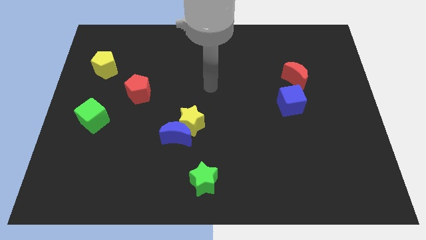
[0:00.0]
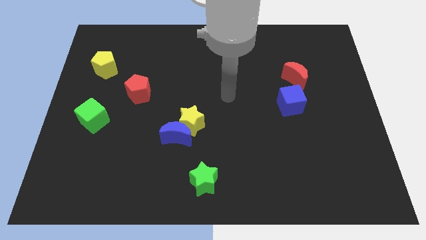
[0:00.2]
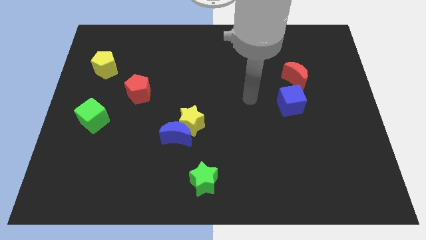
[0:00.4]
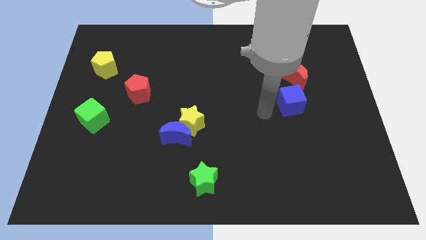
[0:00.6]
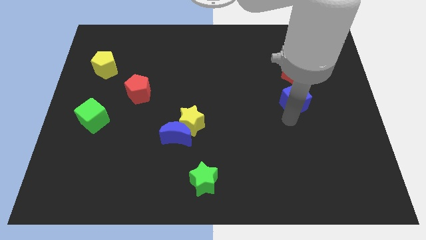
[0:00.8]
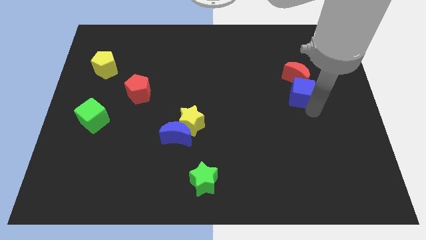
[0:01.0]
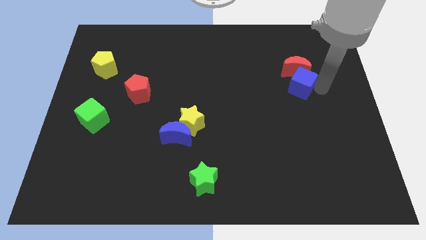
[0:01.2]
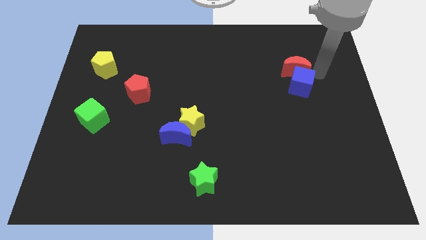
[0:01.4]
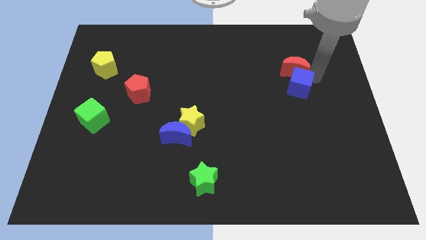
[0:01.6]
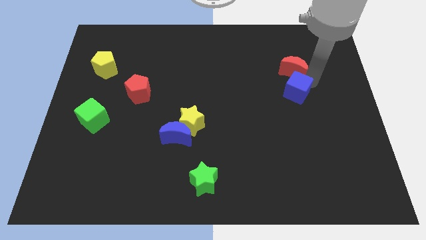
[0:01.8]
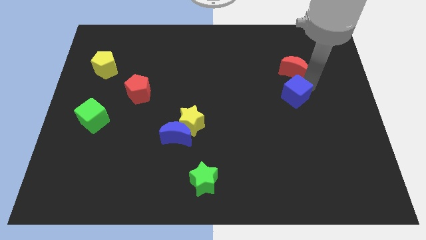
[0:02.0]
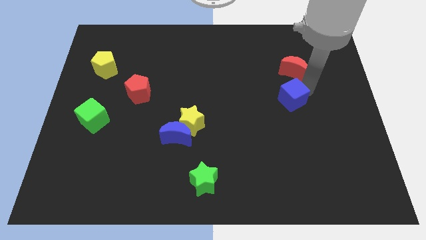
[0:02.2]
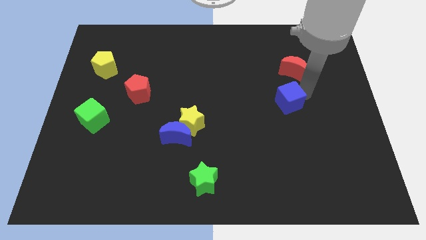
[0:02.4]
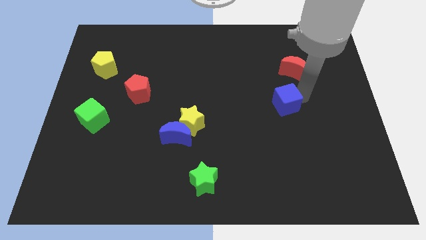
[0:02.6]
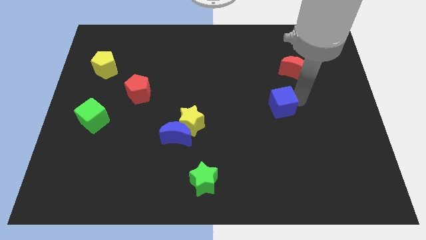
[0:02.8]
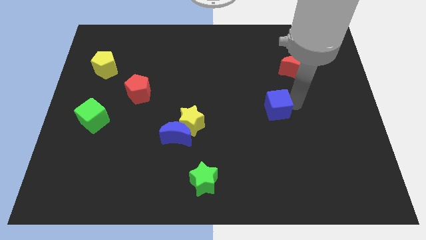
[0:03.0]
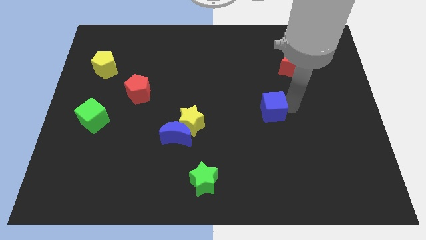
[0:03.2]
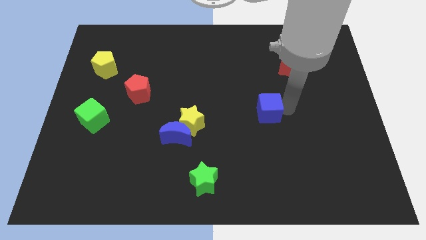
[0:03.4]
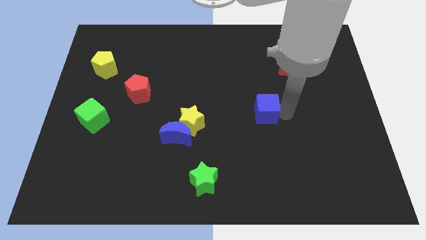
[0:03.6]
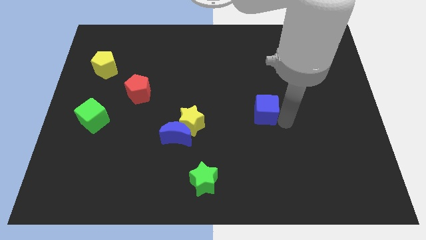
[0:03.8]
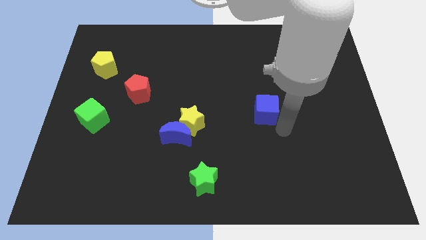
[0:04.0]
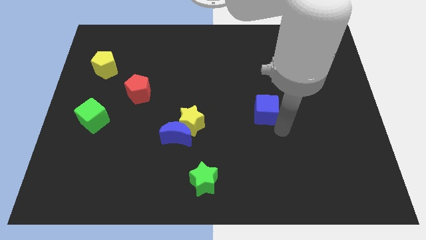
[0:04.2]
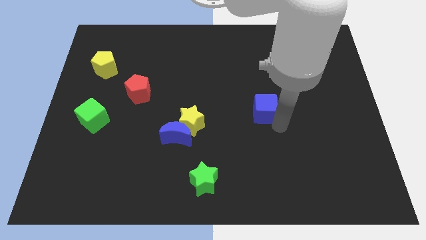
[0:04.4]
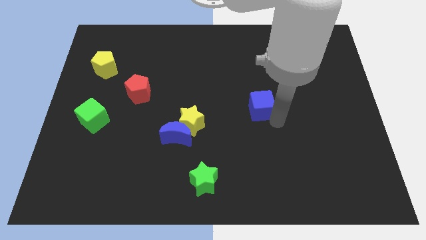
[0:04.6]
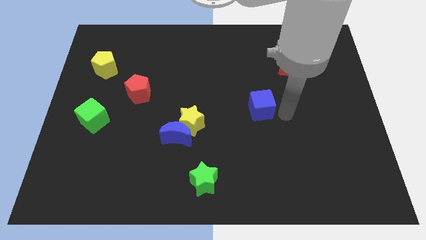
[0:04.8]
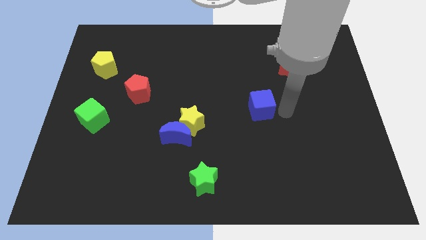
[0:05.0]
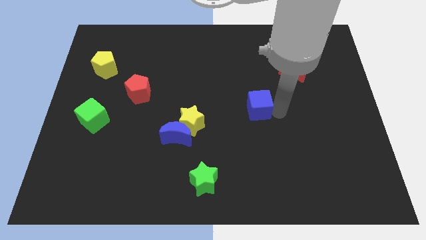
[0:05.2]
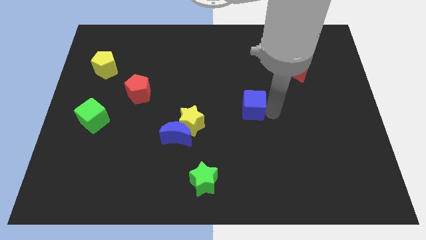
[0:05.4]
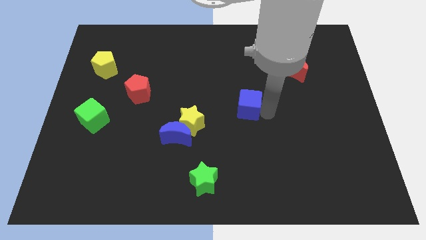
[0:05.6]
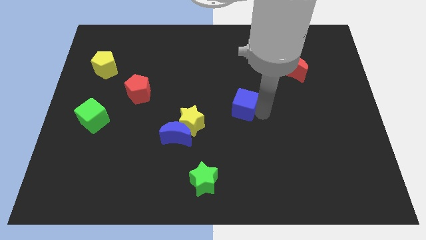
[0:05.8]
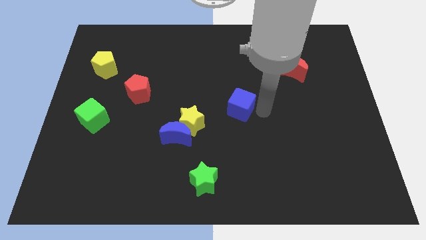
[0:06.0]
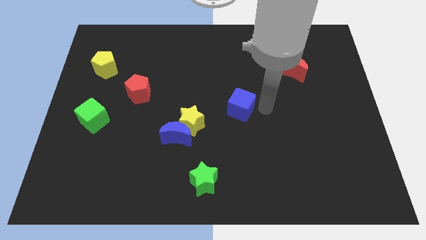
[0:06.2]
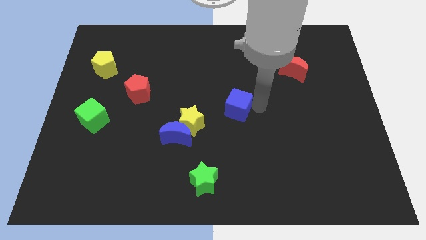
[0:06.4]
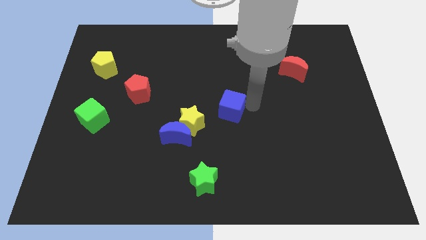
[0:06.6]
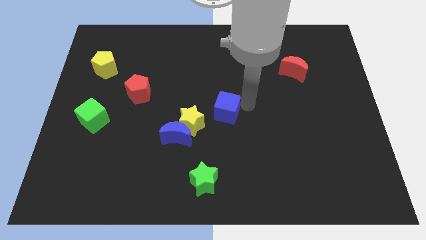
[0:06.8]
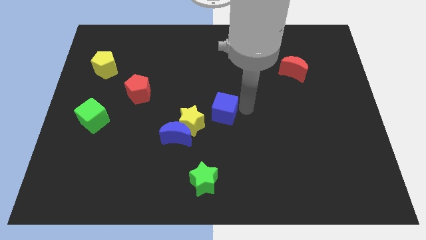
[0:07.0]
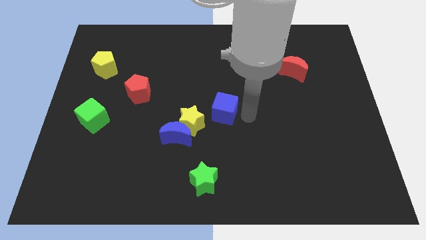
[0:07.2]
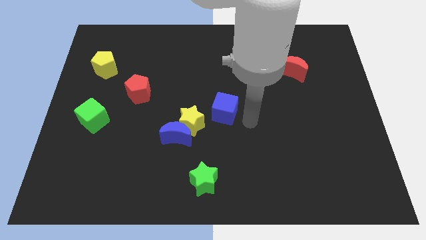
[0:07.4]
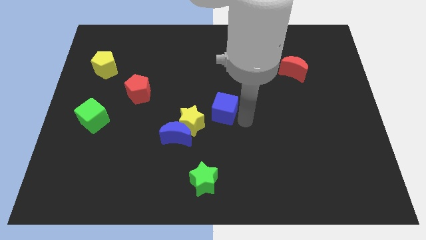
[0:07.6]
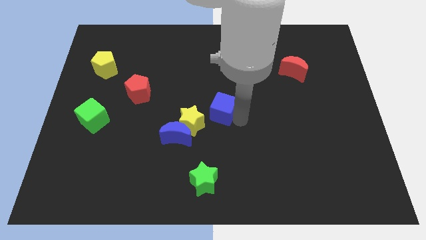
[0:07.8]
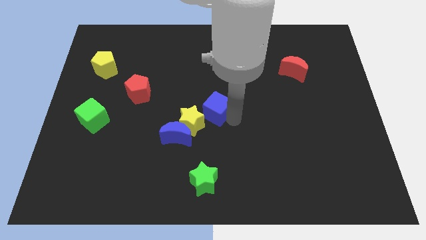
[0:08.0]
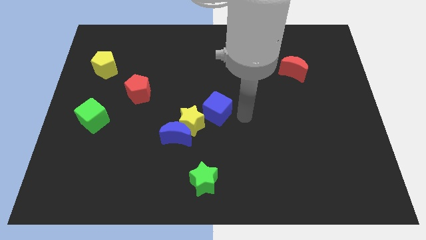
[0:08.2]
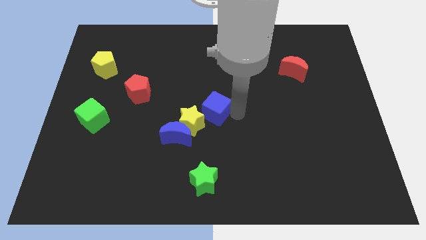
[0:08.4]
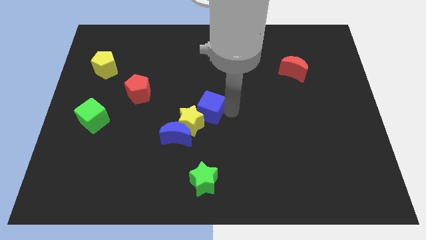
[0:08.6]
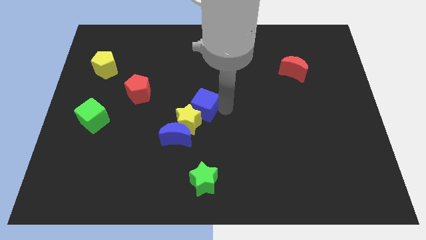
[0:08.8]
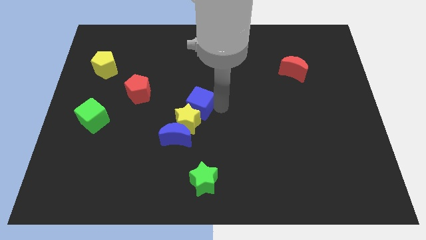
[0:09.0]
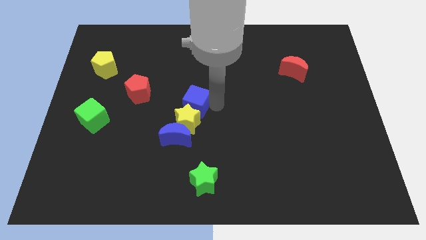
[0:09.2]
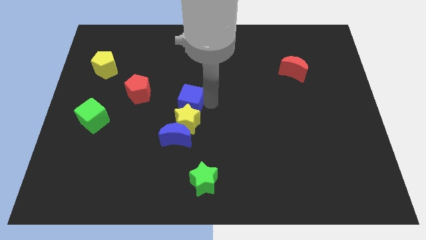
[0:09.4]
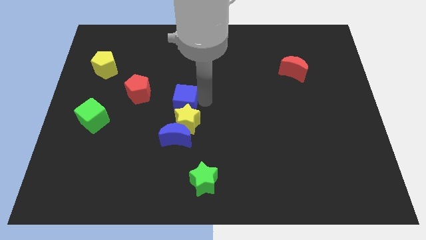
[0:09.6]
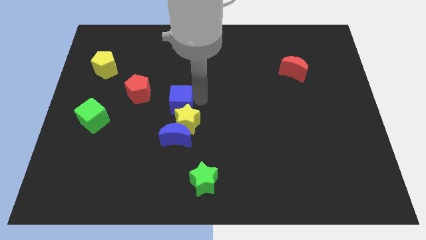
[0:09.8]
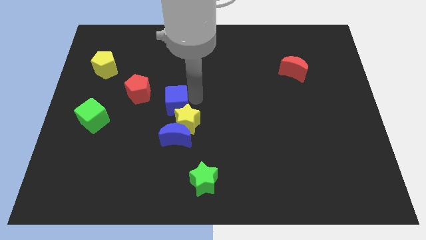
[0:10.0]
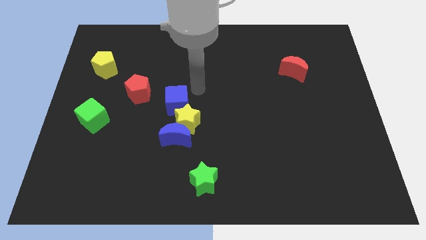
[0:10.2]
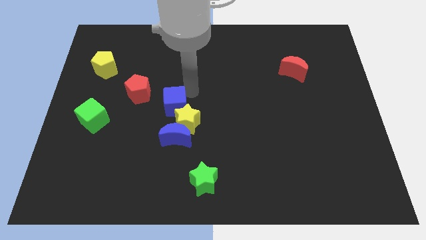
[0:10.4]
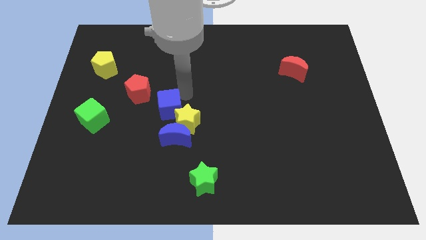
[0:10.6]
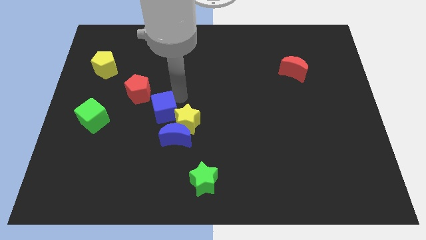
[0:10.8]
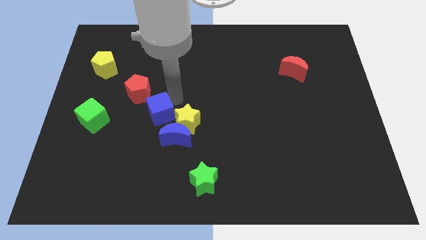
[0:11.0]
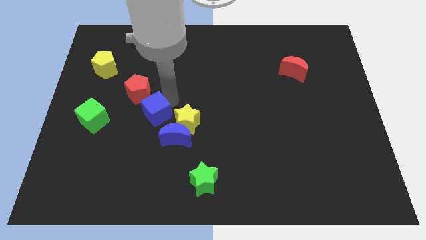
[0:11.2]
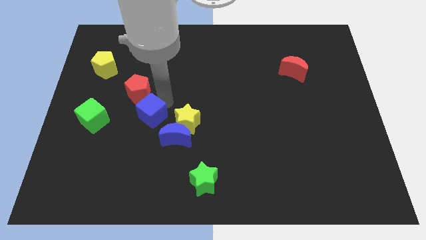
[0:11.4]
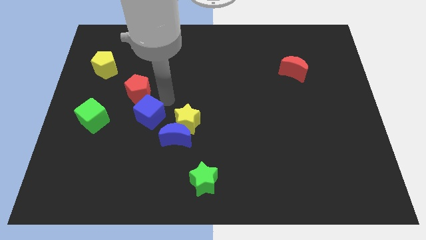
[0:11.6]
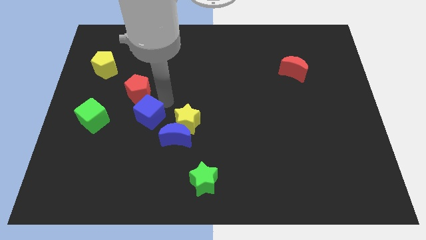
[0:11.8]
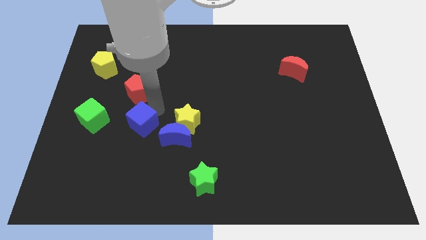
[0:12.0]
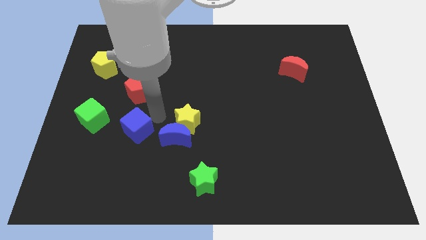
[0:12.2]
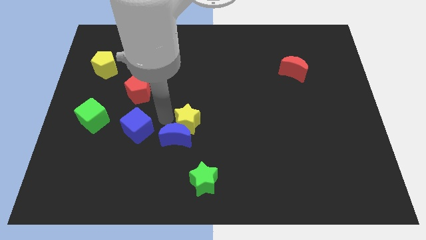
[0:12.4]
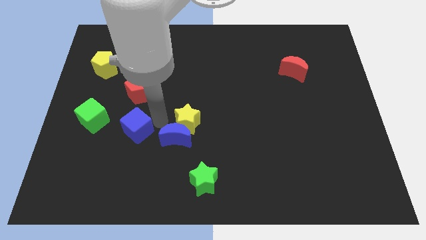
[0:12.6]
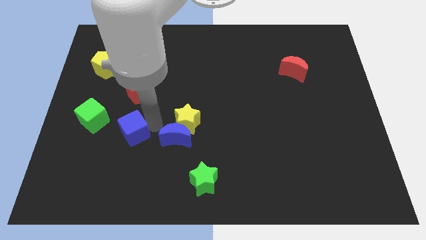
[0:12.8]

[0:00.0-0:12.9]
put the blue cube to the bottom right side of the green cube

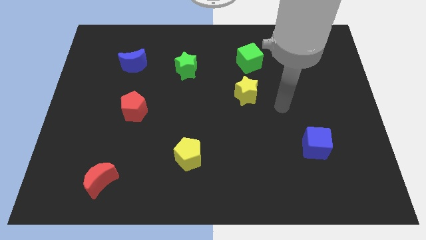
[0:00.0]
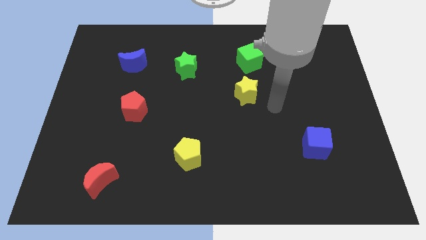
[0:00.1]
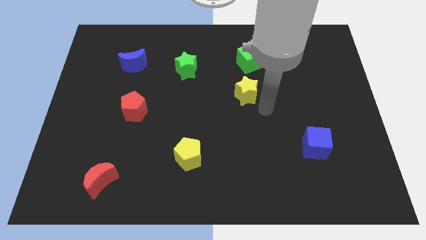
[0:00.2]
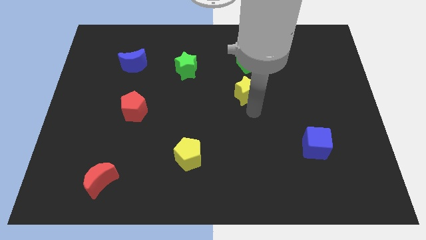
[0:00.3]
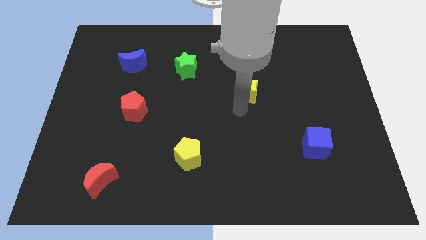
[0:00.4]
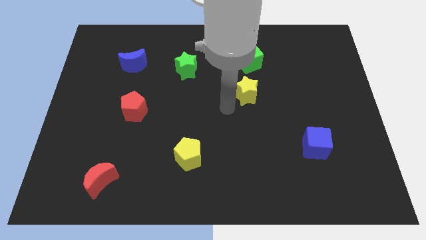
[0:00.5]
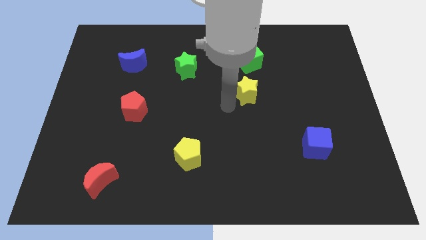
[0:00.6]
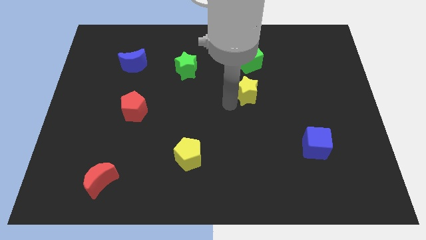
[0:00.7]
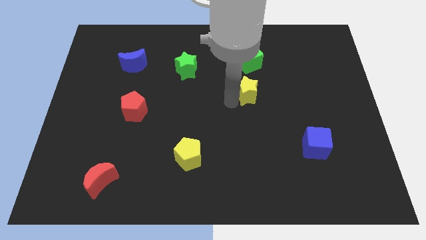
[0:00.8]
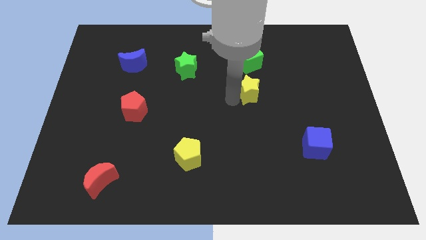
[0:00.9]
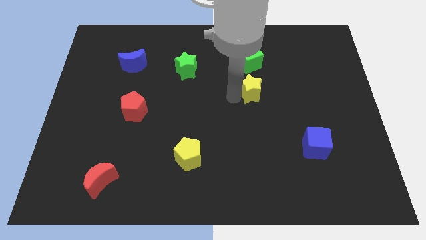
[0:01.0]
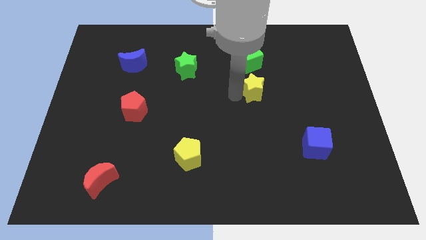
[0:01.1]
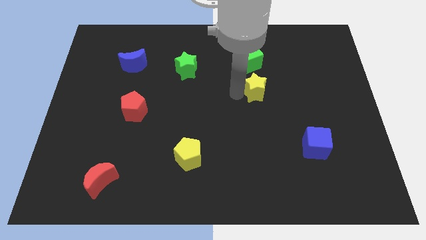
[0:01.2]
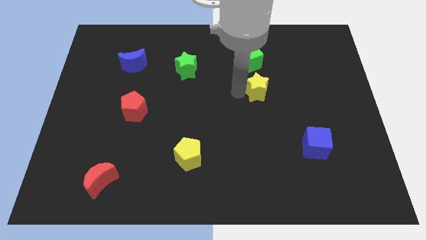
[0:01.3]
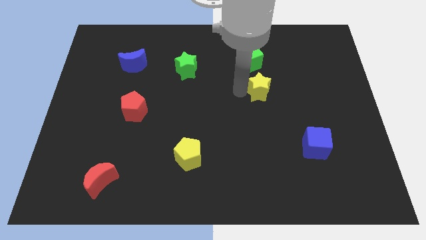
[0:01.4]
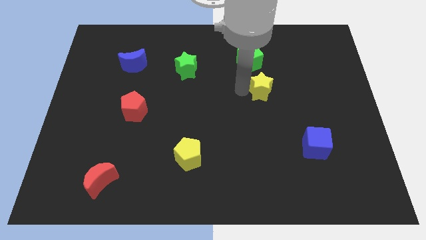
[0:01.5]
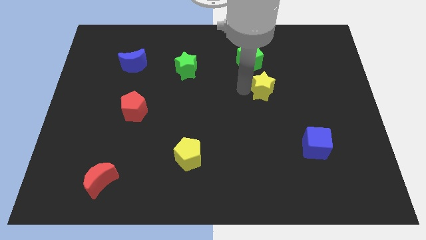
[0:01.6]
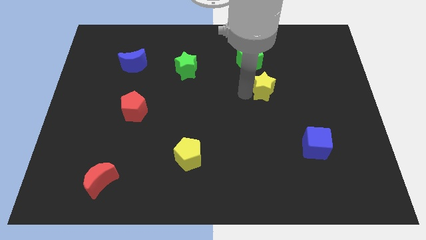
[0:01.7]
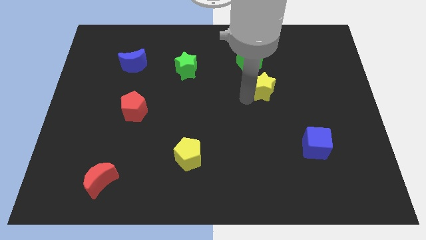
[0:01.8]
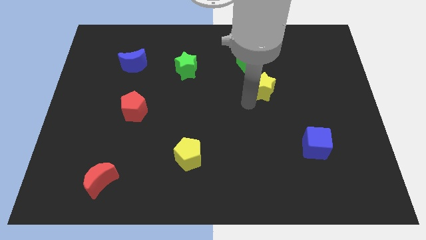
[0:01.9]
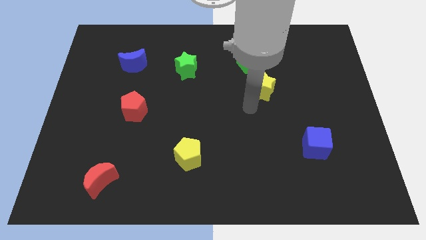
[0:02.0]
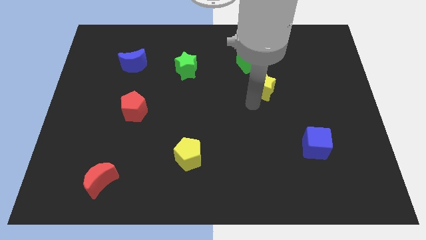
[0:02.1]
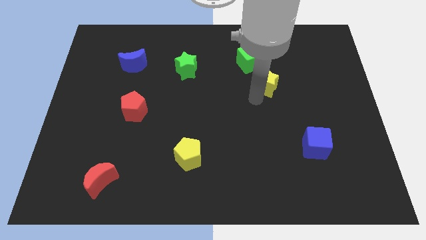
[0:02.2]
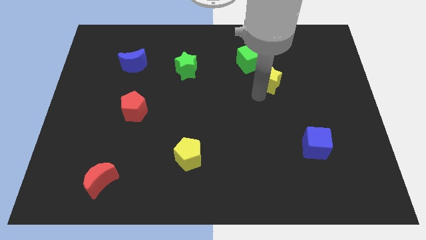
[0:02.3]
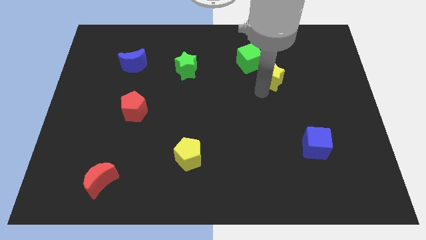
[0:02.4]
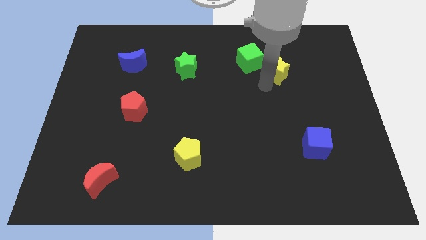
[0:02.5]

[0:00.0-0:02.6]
move the yellow star right of the green cube
